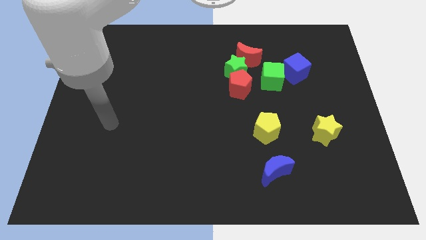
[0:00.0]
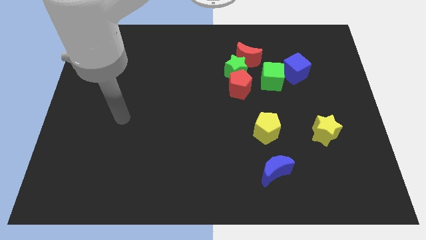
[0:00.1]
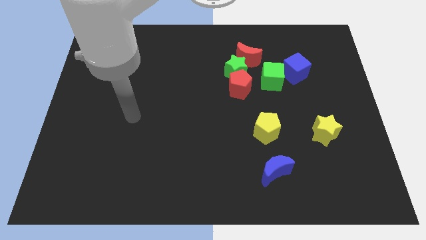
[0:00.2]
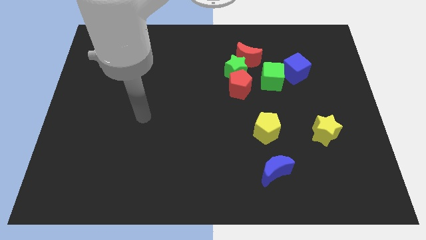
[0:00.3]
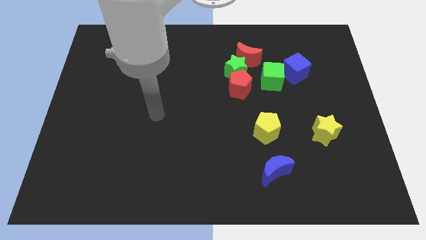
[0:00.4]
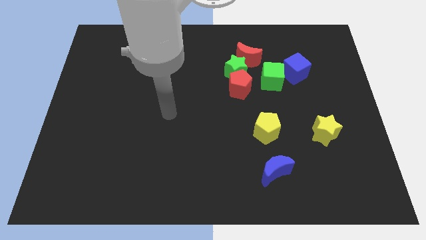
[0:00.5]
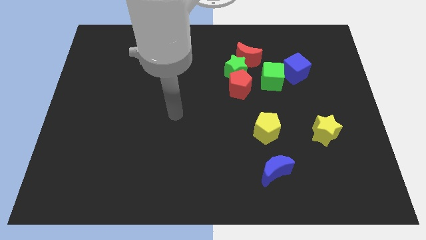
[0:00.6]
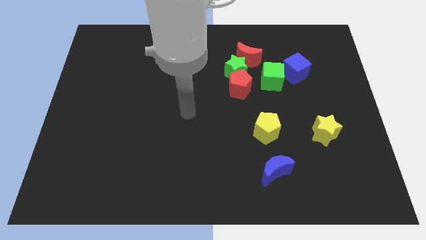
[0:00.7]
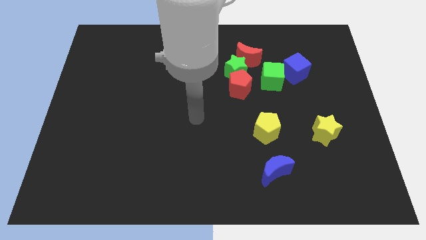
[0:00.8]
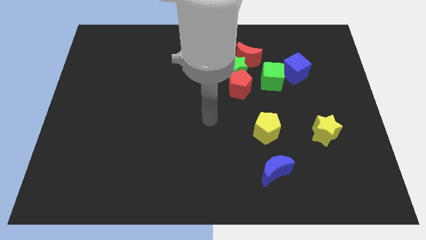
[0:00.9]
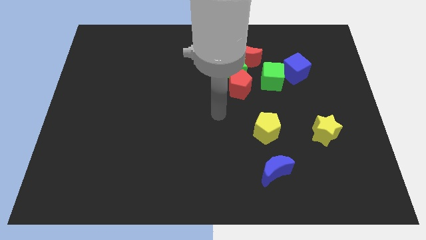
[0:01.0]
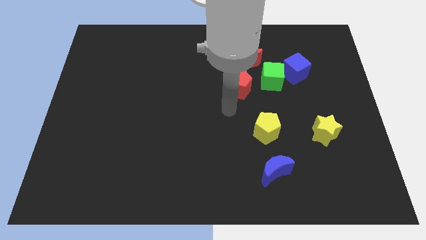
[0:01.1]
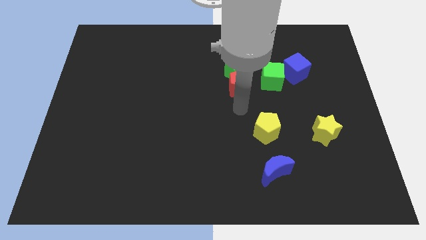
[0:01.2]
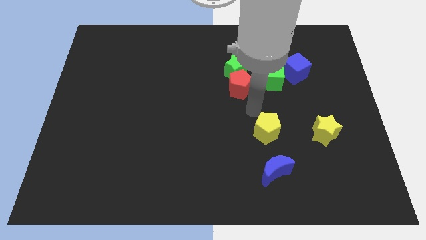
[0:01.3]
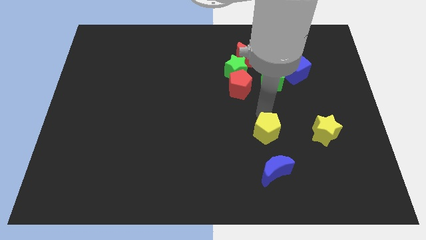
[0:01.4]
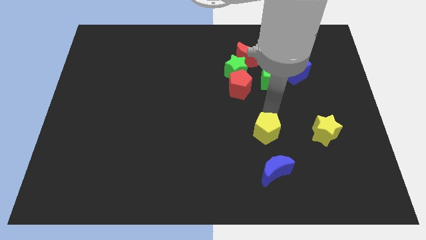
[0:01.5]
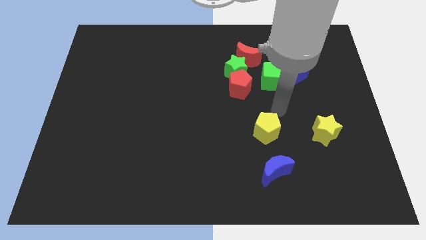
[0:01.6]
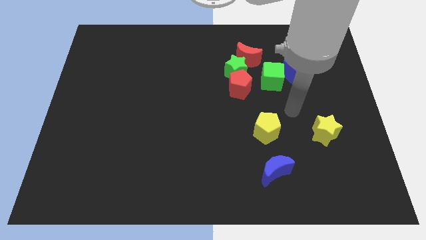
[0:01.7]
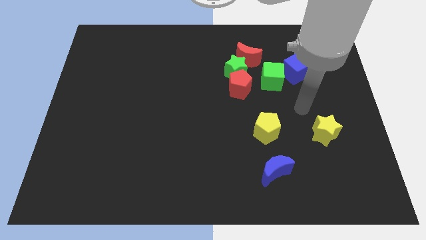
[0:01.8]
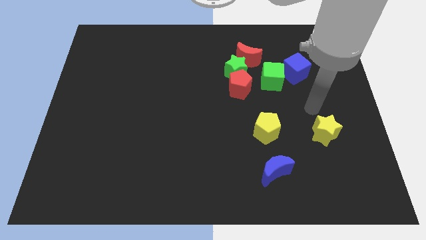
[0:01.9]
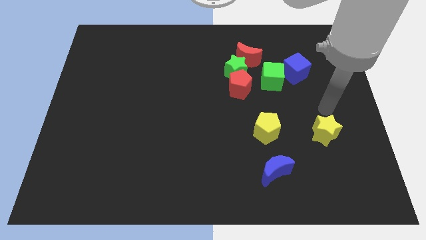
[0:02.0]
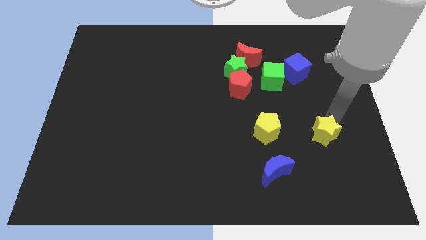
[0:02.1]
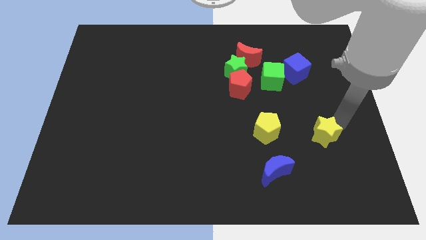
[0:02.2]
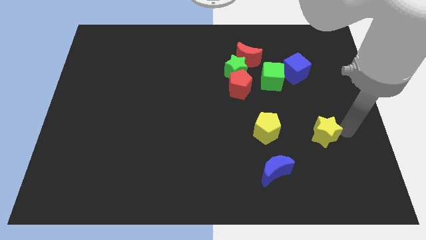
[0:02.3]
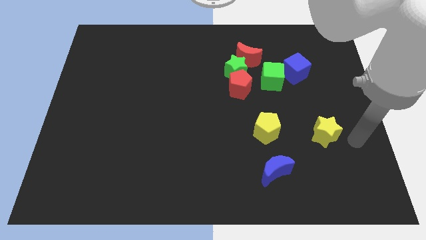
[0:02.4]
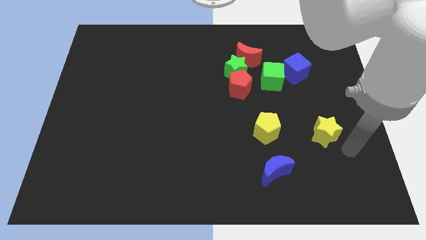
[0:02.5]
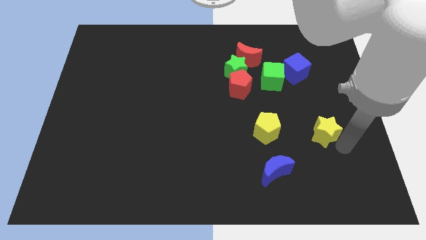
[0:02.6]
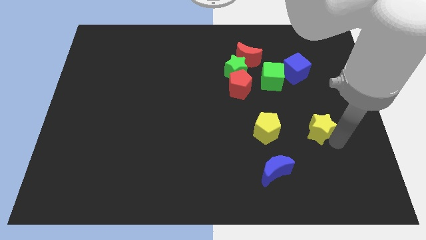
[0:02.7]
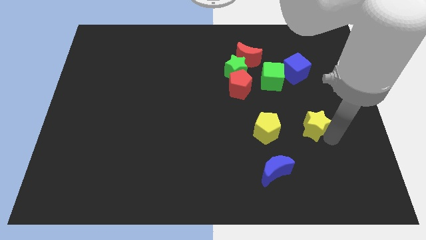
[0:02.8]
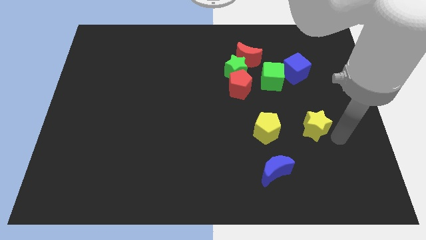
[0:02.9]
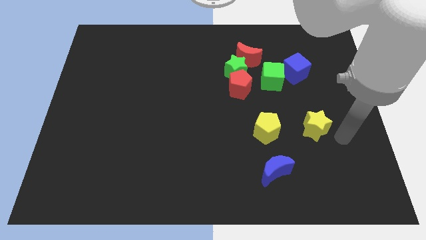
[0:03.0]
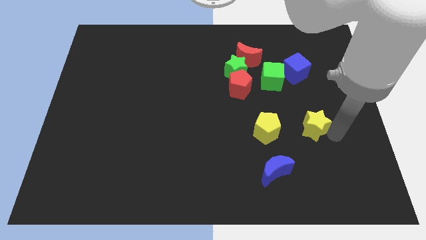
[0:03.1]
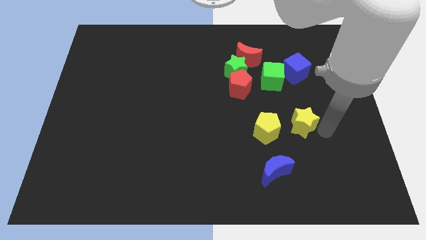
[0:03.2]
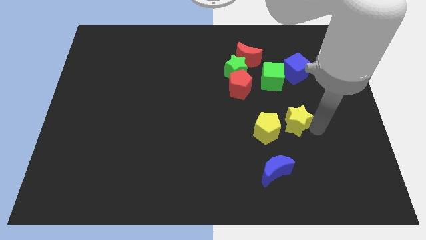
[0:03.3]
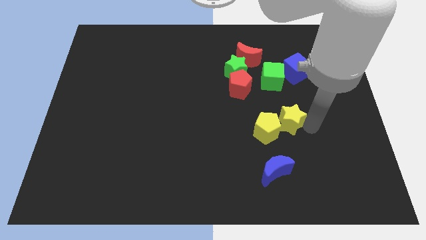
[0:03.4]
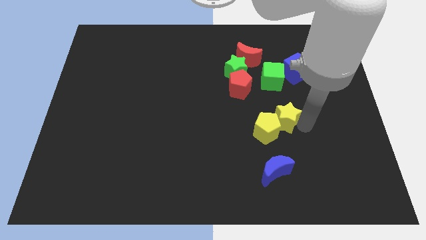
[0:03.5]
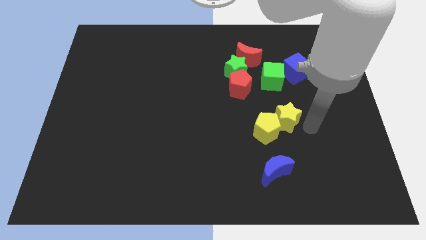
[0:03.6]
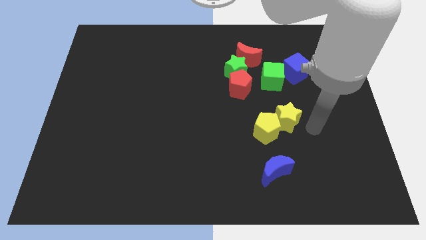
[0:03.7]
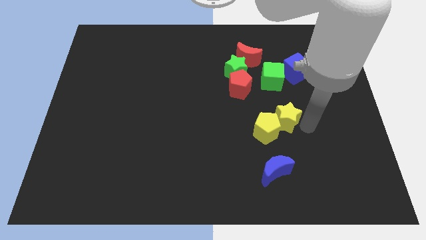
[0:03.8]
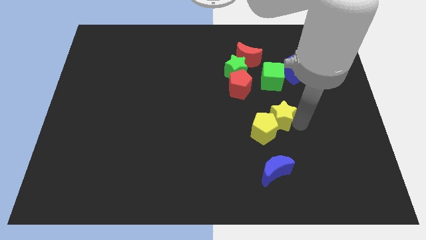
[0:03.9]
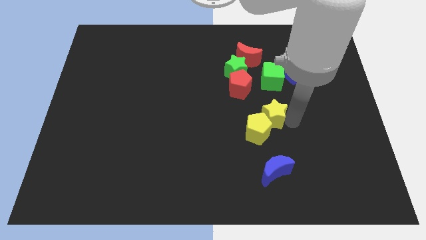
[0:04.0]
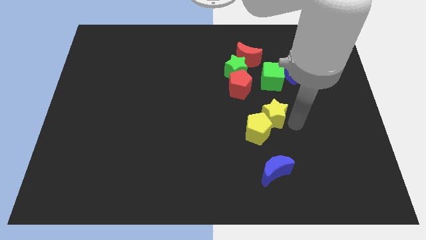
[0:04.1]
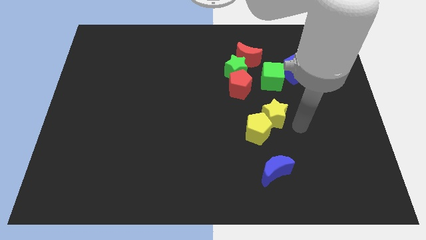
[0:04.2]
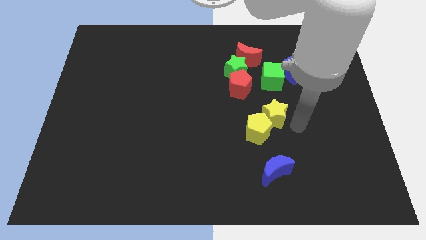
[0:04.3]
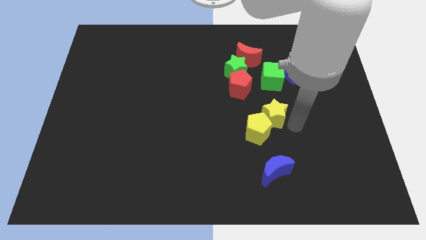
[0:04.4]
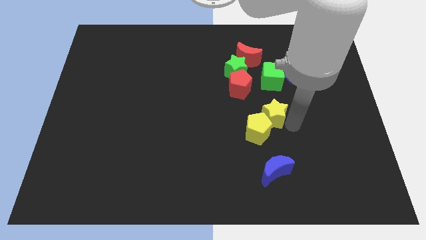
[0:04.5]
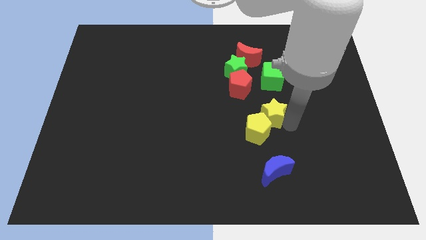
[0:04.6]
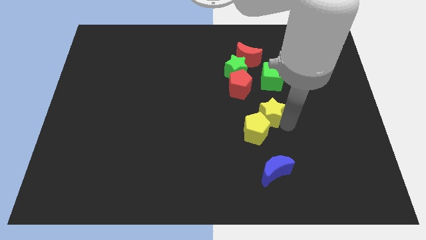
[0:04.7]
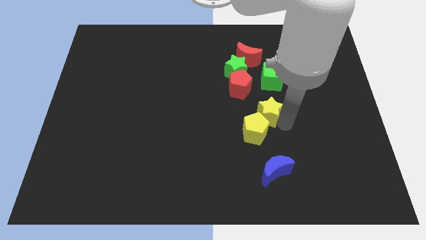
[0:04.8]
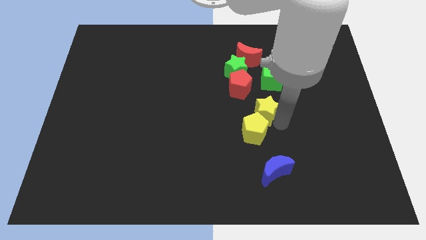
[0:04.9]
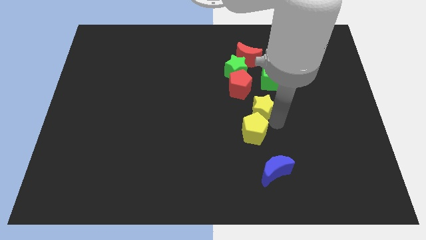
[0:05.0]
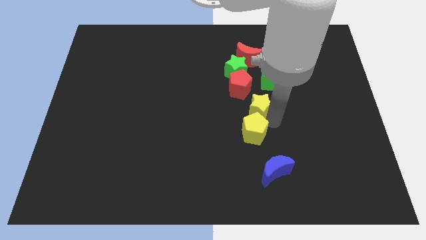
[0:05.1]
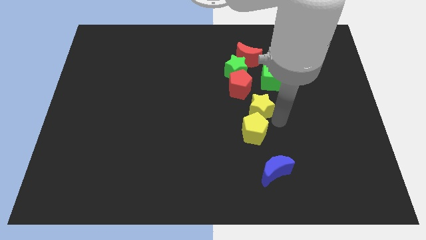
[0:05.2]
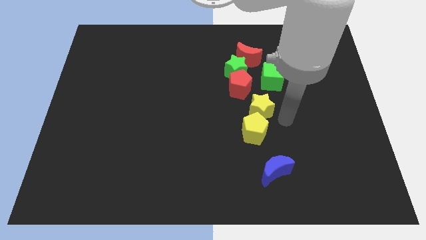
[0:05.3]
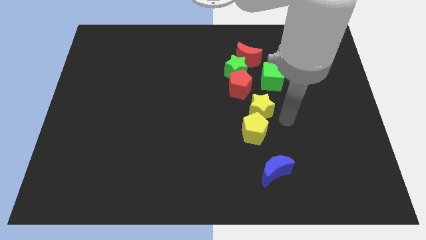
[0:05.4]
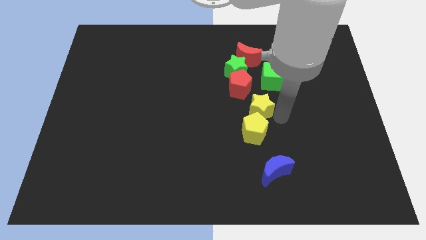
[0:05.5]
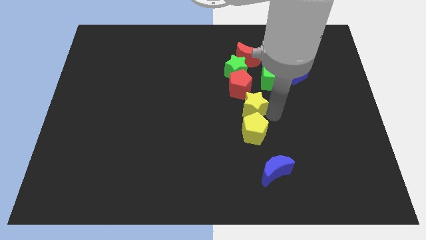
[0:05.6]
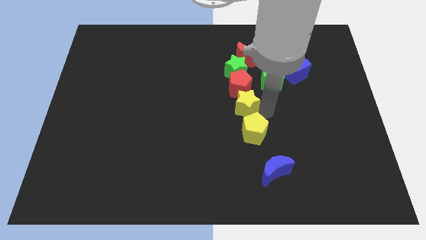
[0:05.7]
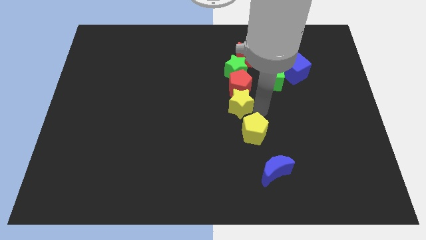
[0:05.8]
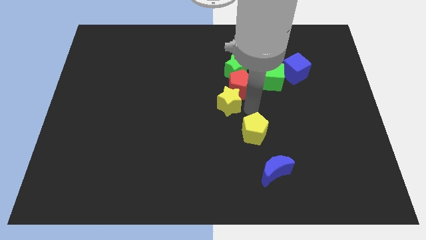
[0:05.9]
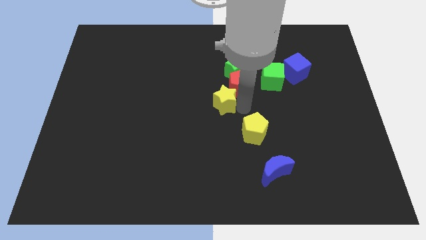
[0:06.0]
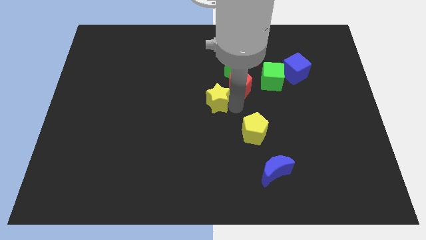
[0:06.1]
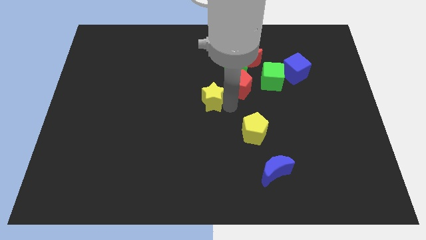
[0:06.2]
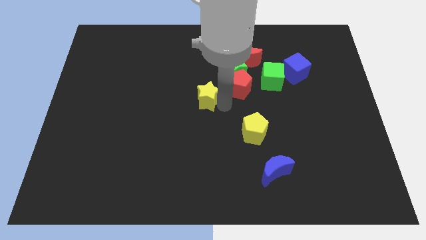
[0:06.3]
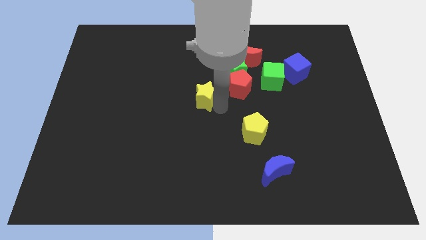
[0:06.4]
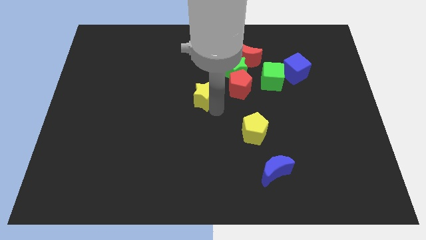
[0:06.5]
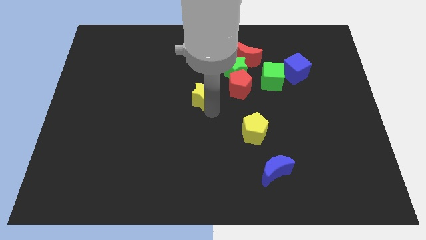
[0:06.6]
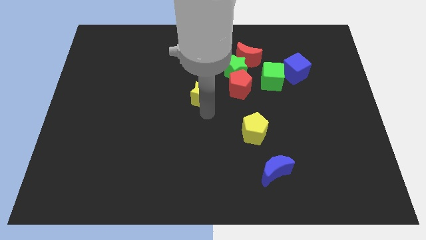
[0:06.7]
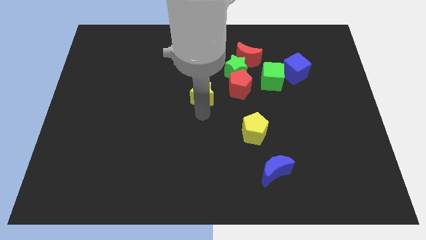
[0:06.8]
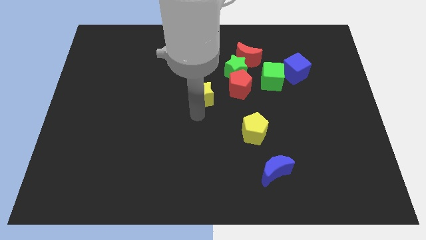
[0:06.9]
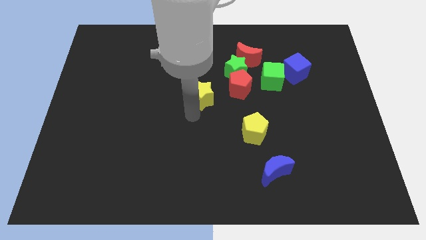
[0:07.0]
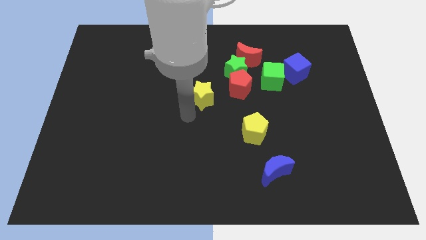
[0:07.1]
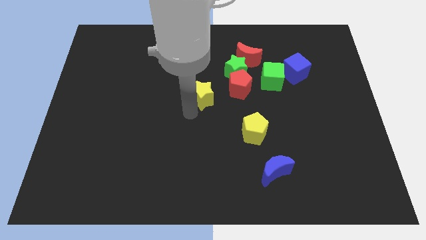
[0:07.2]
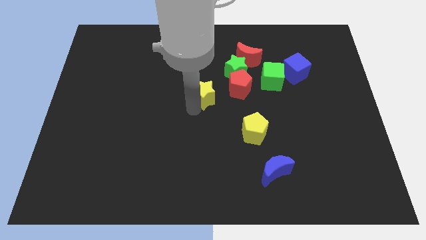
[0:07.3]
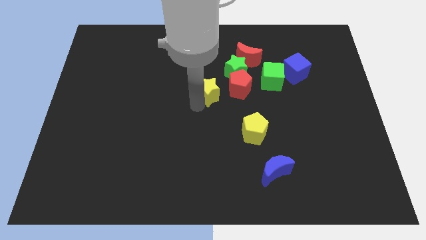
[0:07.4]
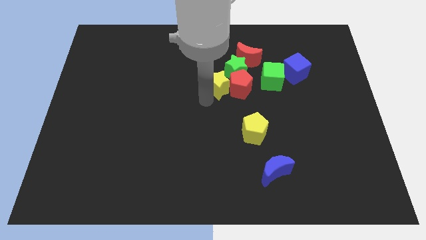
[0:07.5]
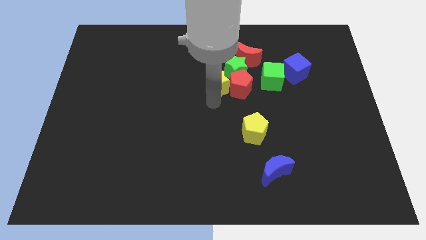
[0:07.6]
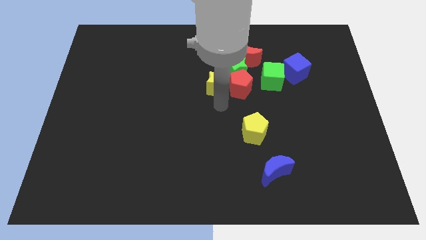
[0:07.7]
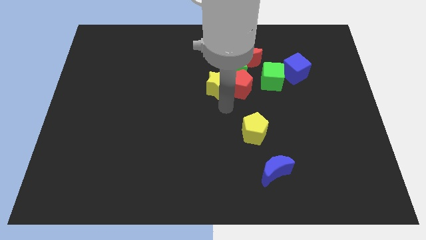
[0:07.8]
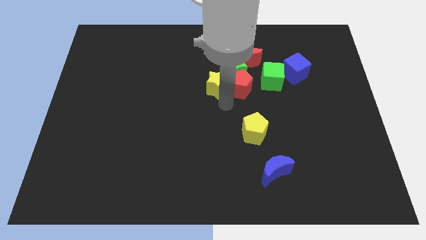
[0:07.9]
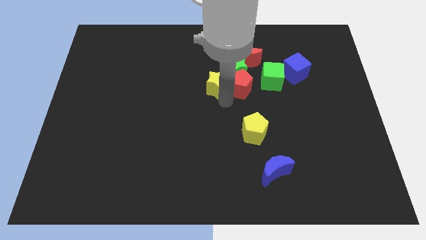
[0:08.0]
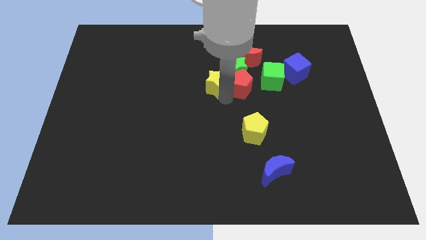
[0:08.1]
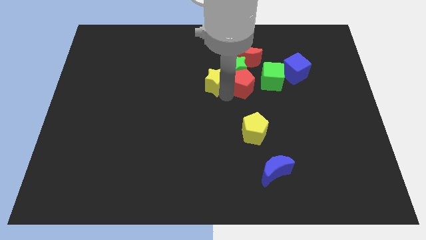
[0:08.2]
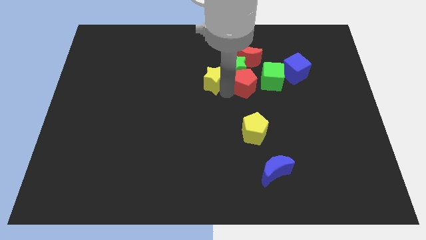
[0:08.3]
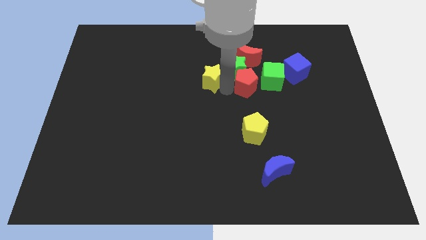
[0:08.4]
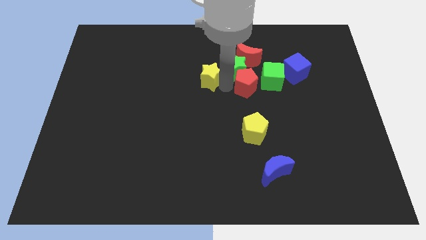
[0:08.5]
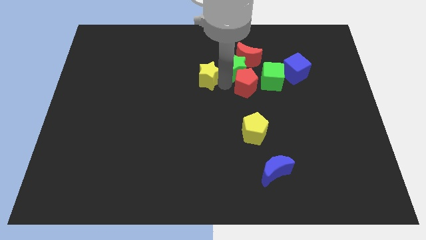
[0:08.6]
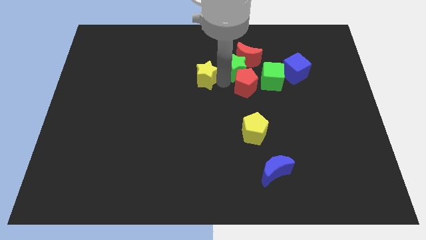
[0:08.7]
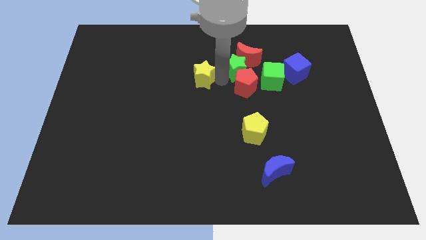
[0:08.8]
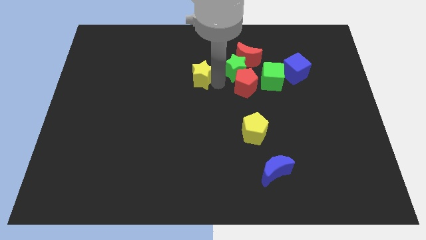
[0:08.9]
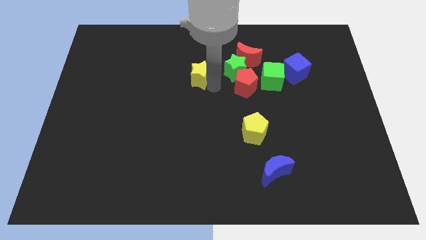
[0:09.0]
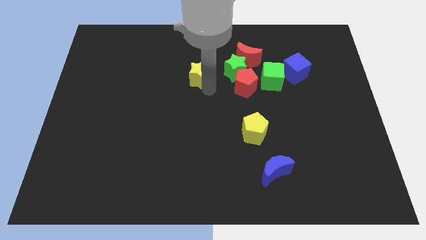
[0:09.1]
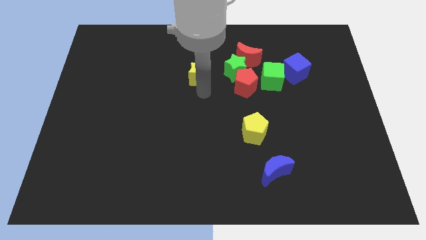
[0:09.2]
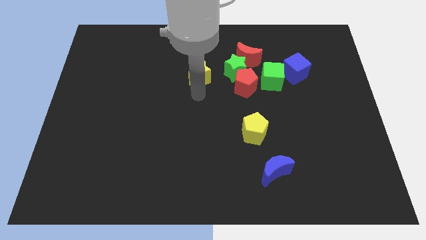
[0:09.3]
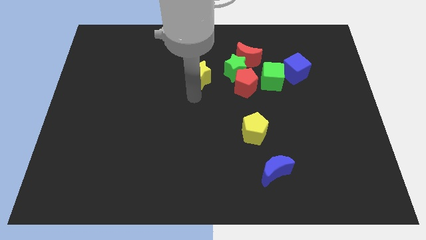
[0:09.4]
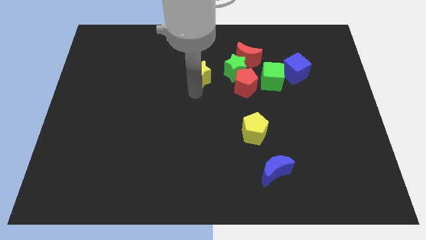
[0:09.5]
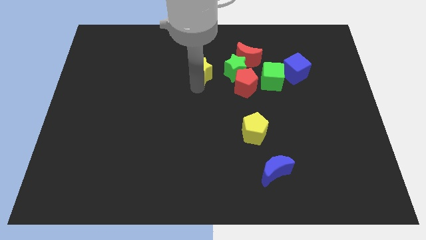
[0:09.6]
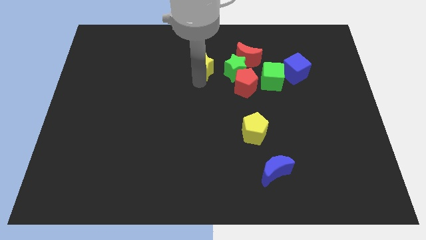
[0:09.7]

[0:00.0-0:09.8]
move the yellow star to the left side of the red moon
